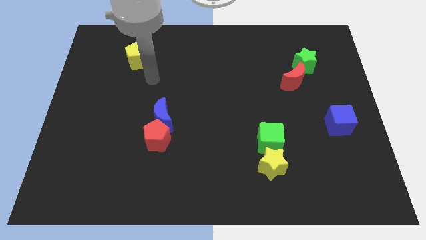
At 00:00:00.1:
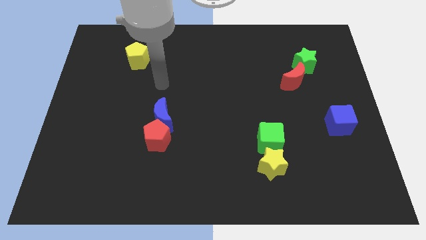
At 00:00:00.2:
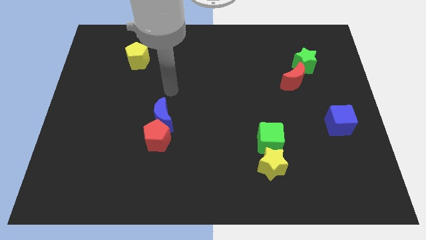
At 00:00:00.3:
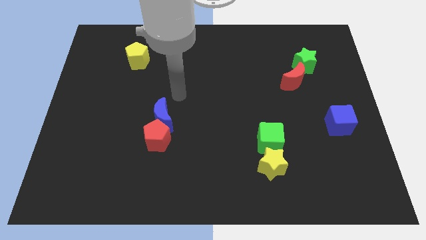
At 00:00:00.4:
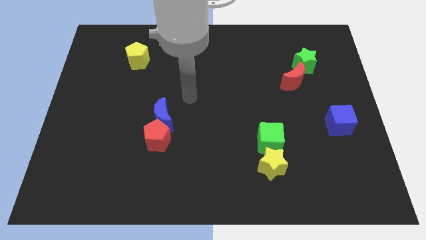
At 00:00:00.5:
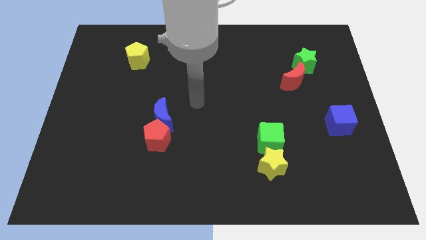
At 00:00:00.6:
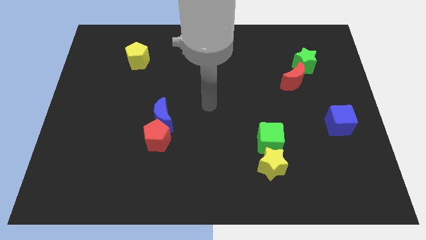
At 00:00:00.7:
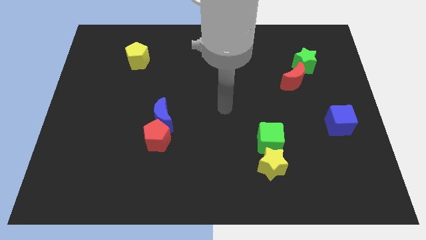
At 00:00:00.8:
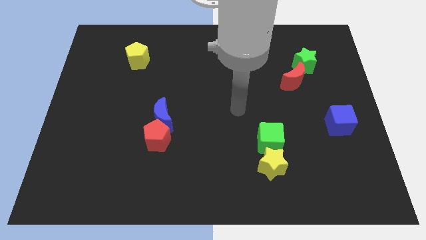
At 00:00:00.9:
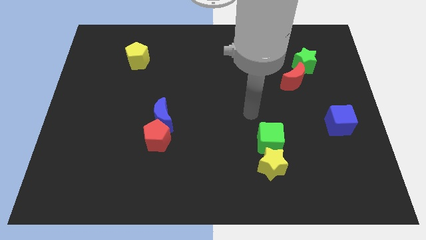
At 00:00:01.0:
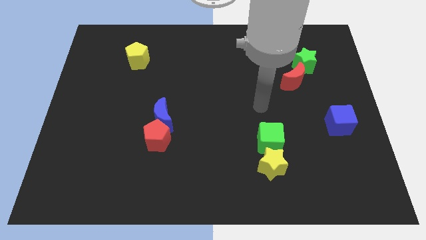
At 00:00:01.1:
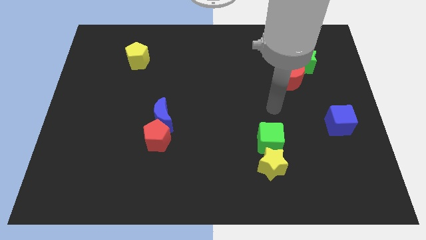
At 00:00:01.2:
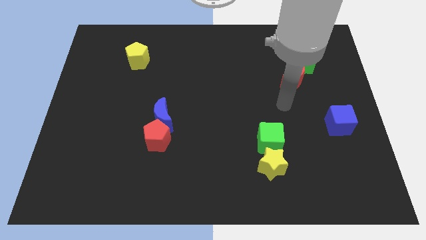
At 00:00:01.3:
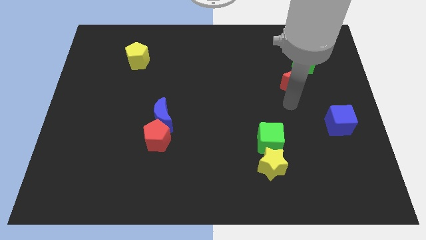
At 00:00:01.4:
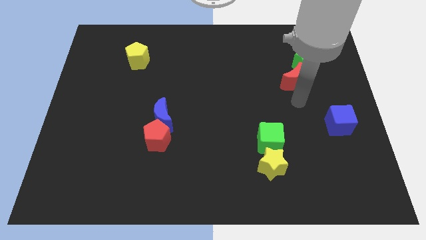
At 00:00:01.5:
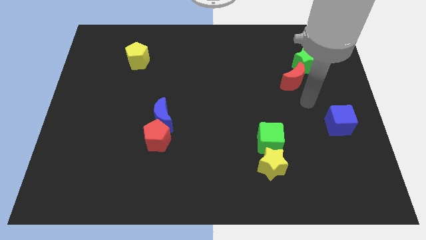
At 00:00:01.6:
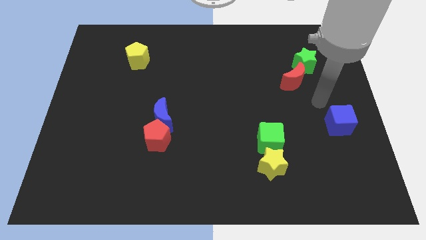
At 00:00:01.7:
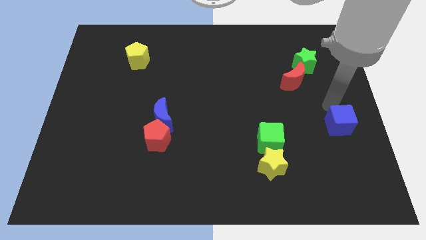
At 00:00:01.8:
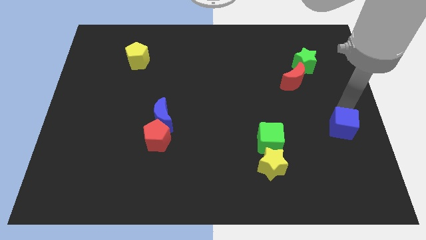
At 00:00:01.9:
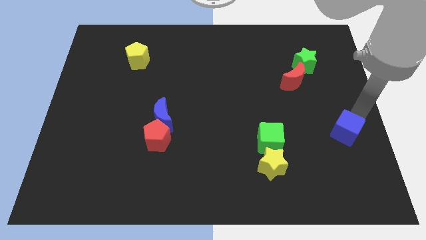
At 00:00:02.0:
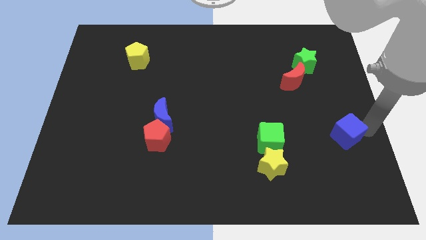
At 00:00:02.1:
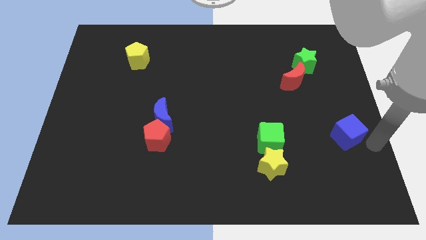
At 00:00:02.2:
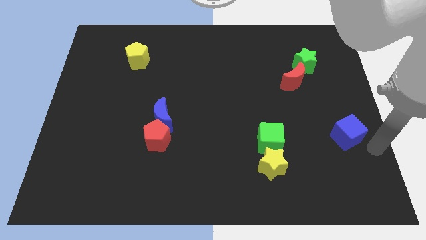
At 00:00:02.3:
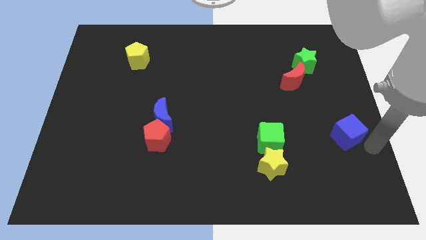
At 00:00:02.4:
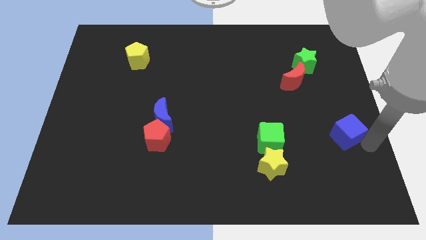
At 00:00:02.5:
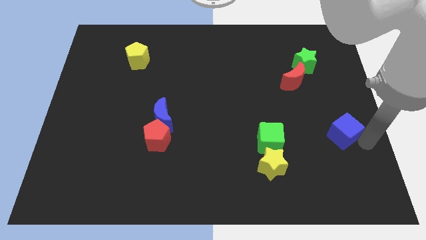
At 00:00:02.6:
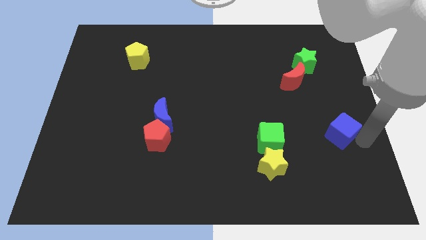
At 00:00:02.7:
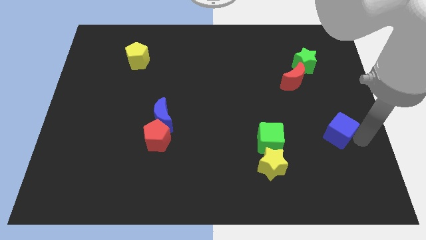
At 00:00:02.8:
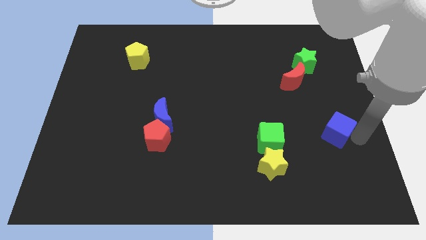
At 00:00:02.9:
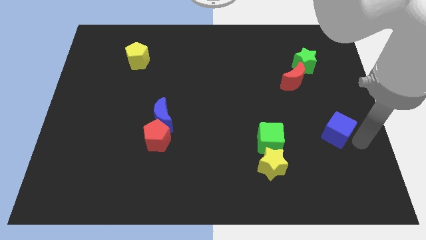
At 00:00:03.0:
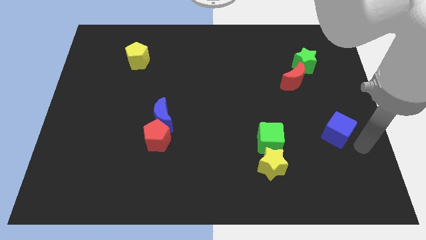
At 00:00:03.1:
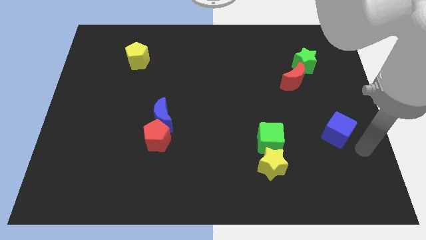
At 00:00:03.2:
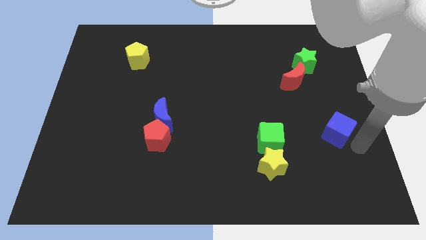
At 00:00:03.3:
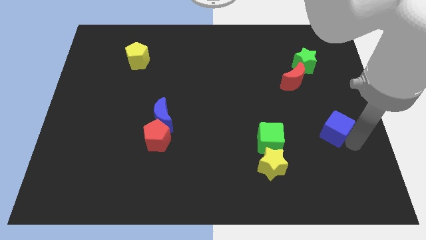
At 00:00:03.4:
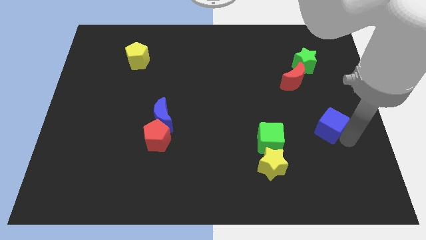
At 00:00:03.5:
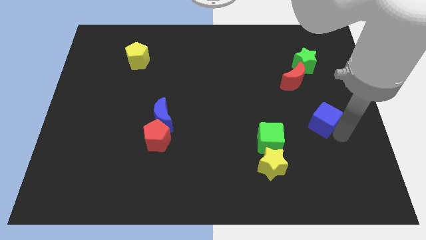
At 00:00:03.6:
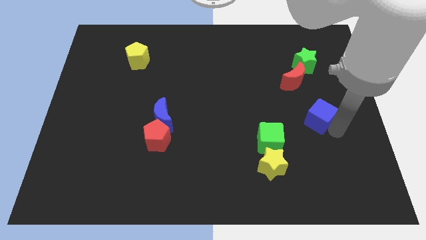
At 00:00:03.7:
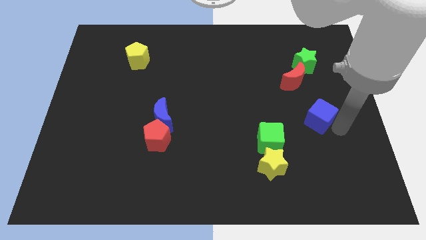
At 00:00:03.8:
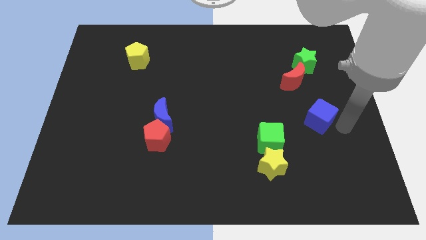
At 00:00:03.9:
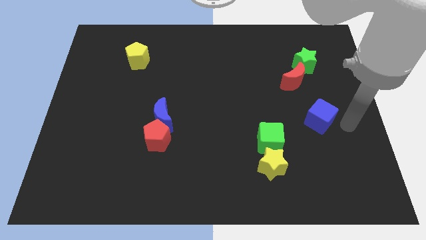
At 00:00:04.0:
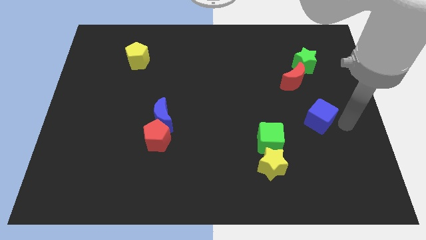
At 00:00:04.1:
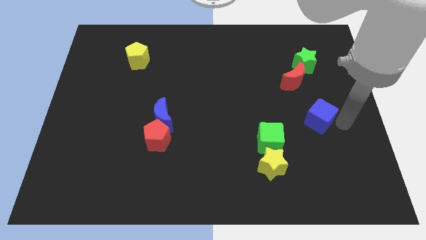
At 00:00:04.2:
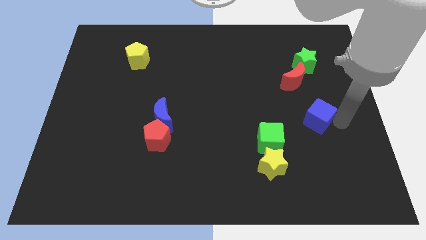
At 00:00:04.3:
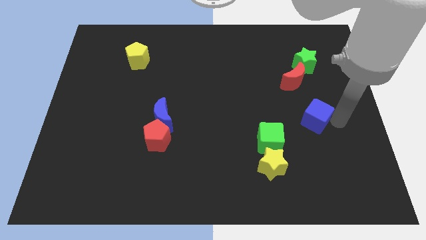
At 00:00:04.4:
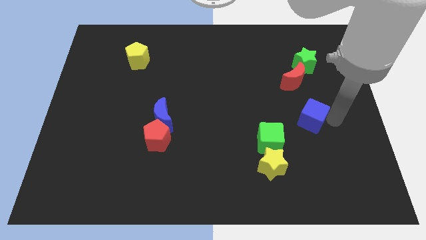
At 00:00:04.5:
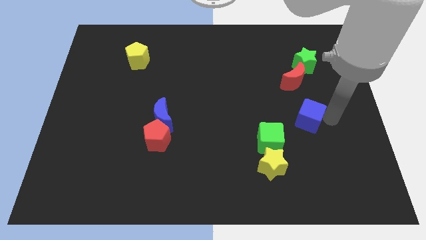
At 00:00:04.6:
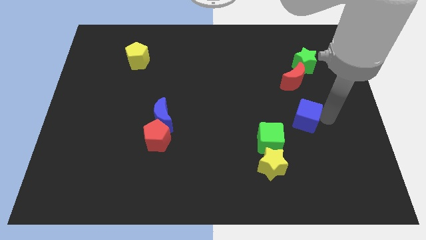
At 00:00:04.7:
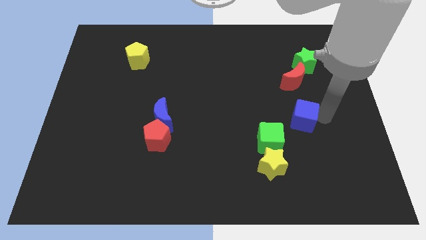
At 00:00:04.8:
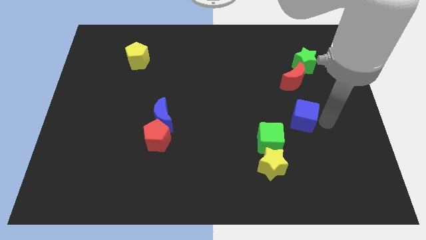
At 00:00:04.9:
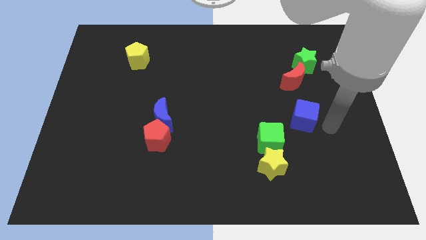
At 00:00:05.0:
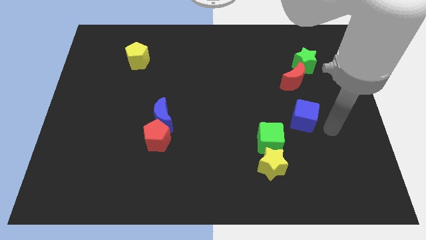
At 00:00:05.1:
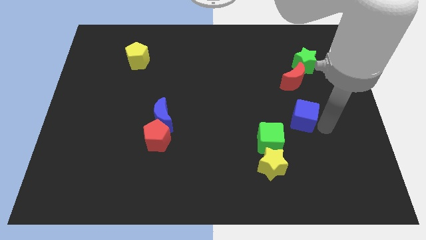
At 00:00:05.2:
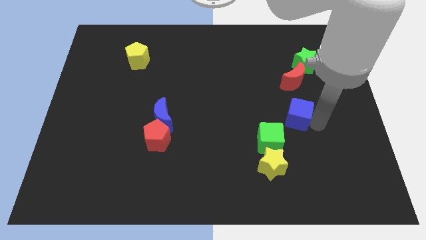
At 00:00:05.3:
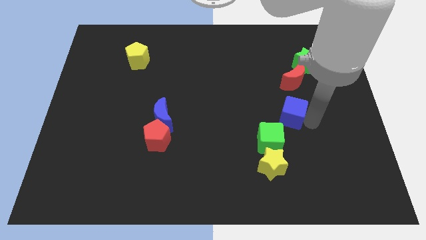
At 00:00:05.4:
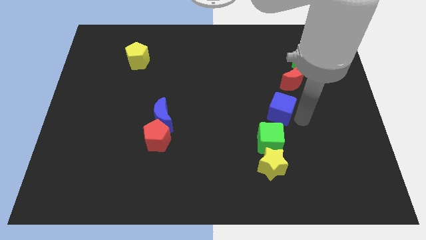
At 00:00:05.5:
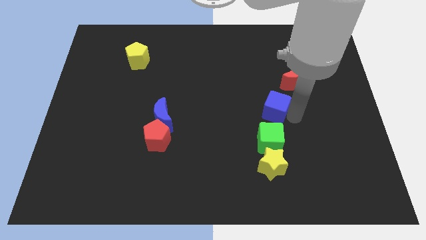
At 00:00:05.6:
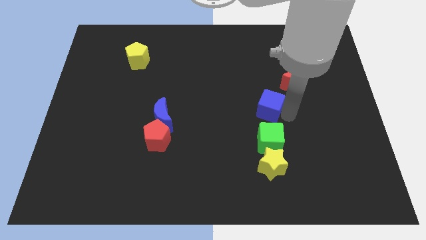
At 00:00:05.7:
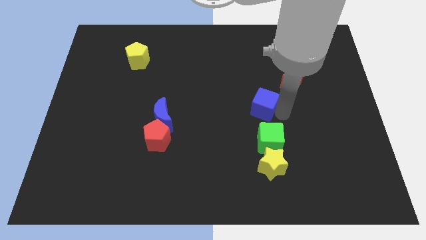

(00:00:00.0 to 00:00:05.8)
push the blue cube to the center of the board

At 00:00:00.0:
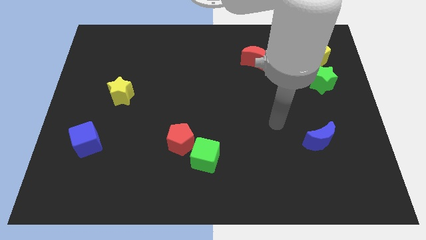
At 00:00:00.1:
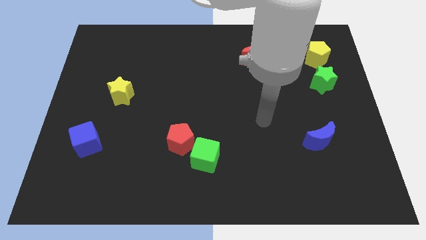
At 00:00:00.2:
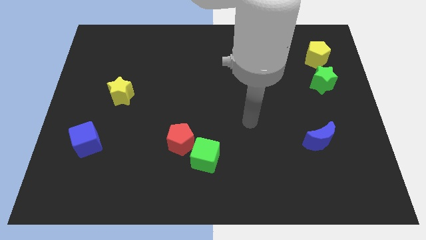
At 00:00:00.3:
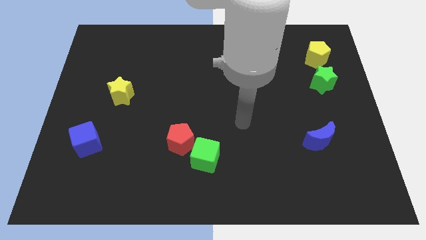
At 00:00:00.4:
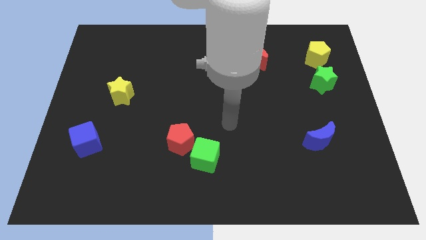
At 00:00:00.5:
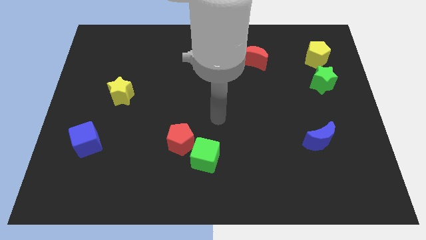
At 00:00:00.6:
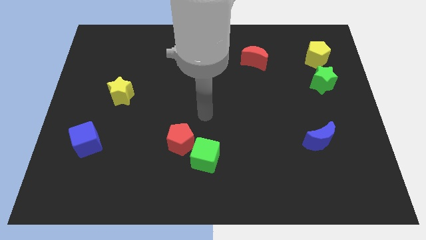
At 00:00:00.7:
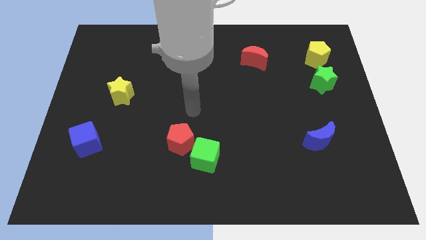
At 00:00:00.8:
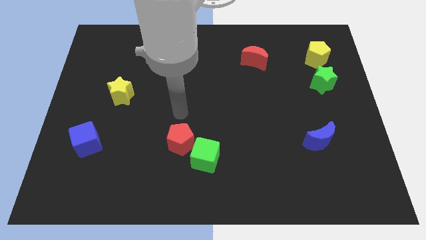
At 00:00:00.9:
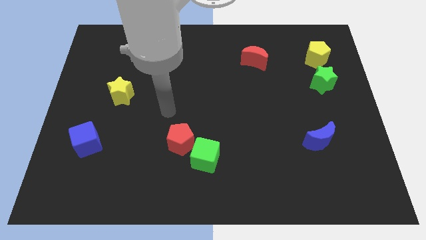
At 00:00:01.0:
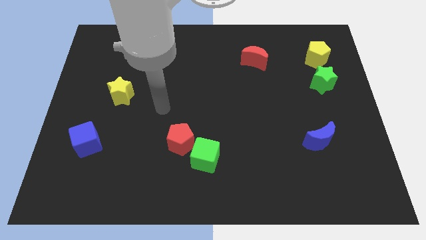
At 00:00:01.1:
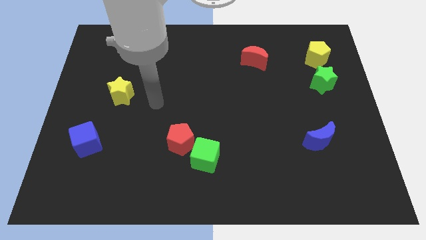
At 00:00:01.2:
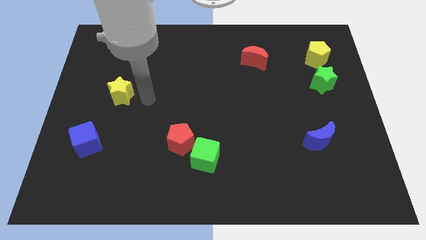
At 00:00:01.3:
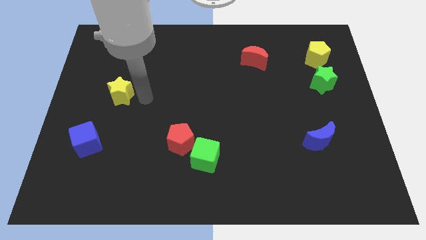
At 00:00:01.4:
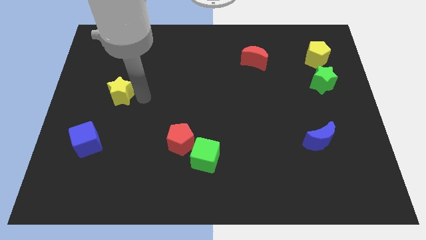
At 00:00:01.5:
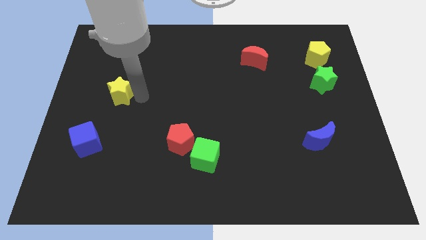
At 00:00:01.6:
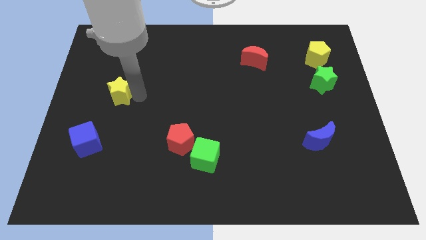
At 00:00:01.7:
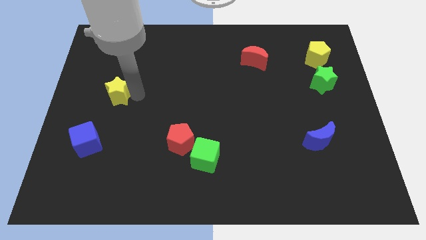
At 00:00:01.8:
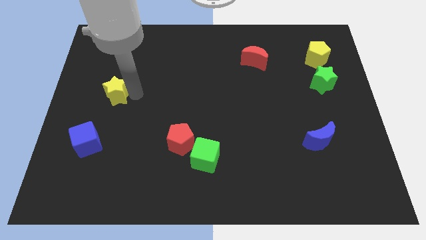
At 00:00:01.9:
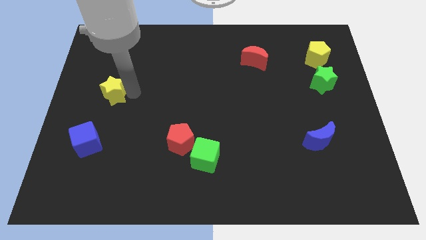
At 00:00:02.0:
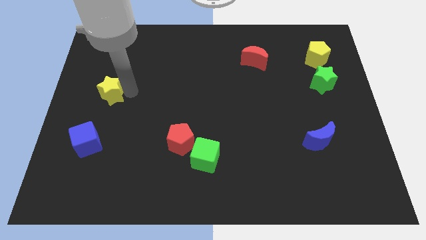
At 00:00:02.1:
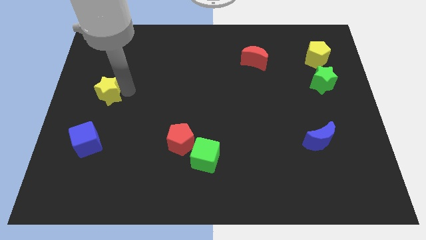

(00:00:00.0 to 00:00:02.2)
slide the yellow star to the left side of the board

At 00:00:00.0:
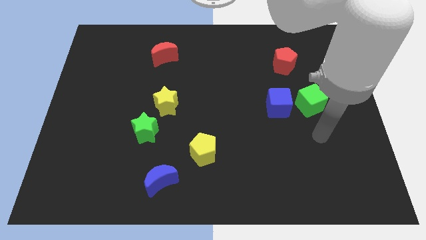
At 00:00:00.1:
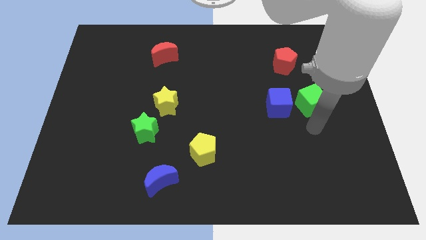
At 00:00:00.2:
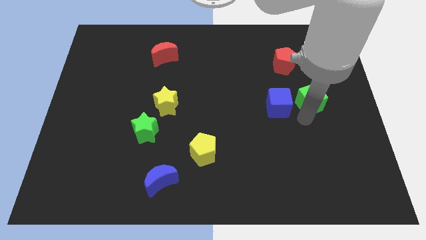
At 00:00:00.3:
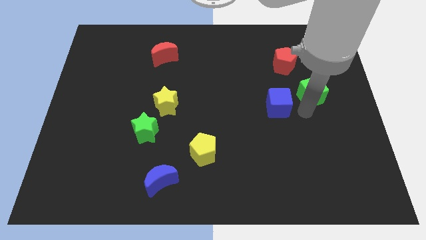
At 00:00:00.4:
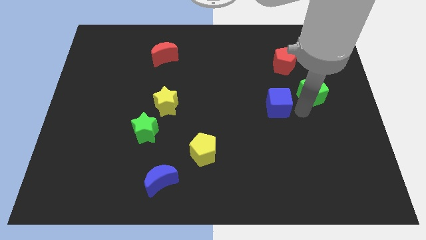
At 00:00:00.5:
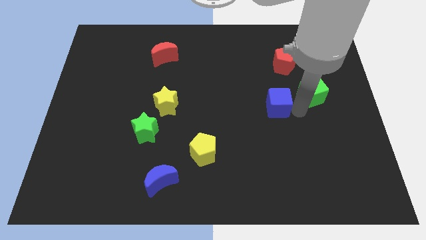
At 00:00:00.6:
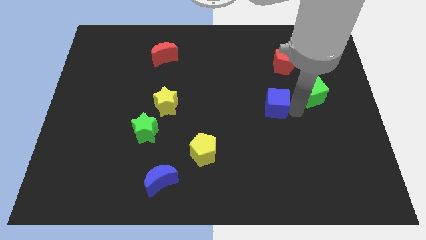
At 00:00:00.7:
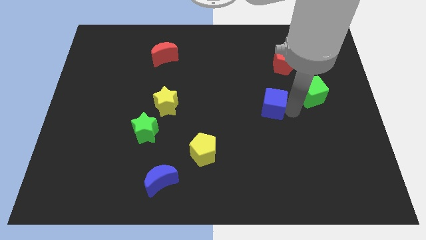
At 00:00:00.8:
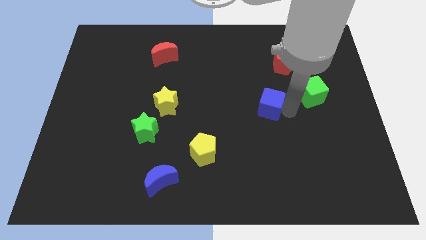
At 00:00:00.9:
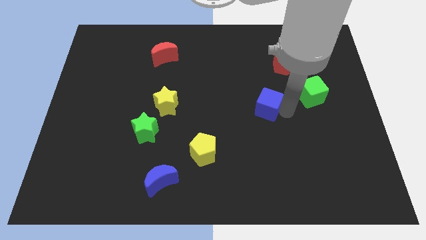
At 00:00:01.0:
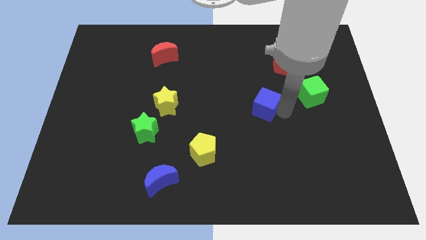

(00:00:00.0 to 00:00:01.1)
move the blue cube to the middle
